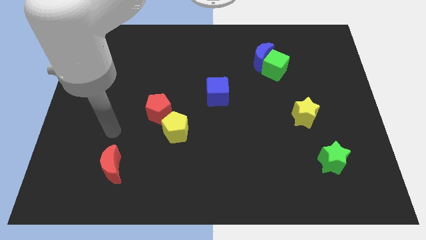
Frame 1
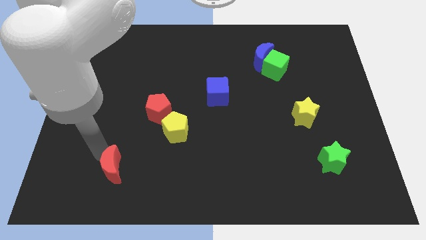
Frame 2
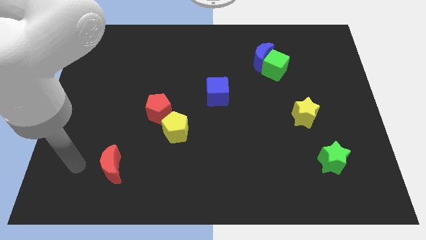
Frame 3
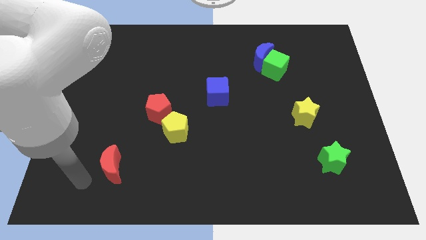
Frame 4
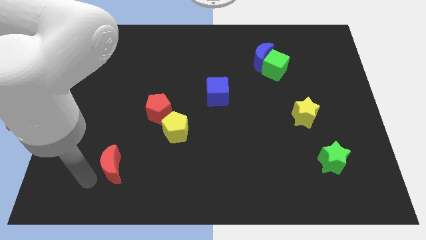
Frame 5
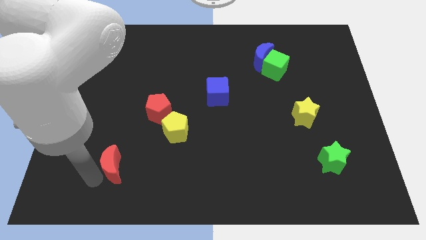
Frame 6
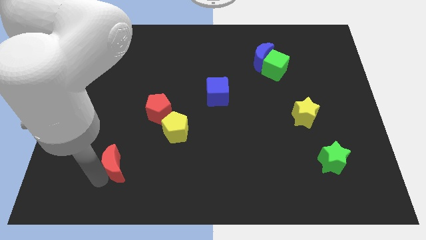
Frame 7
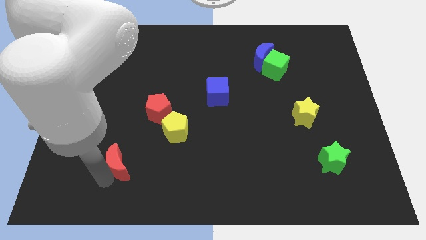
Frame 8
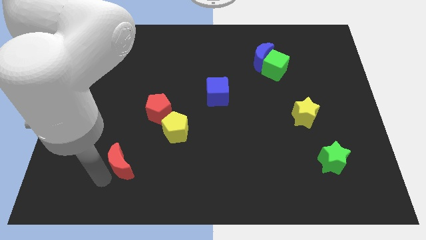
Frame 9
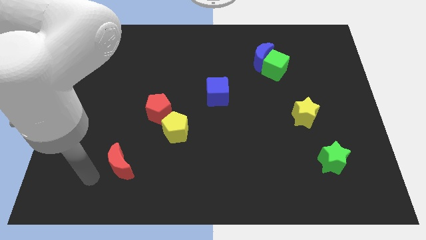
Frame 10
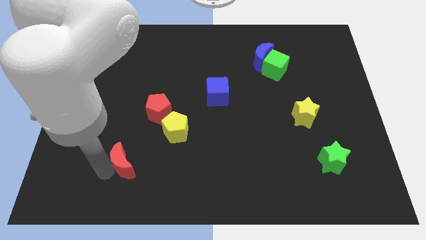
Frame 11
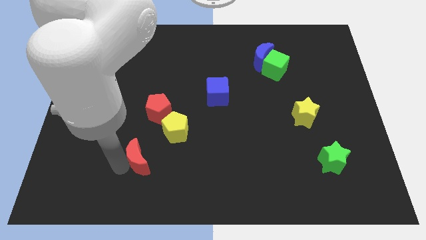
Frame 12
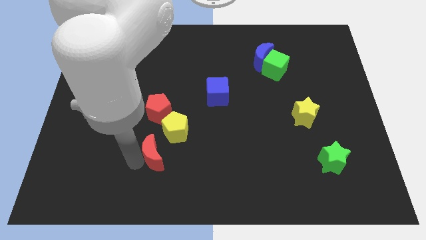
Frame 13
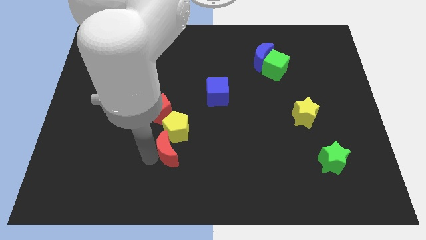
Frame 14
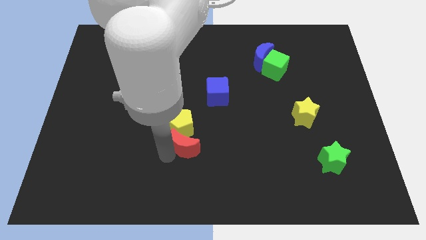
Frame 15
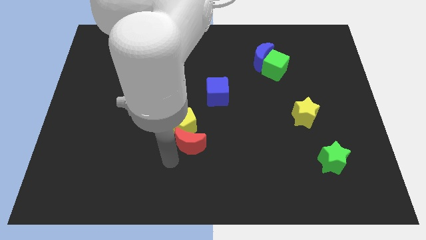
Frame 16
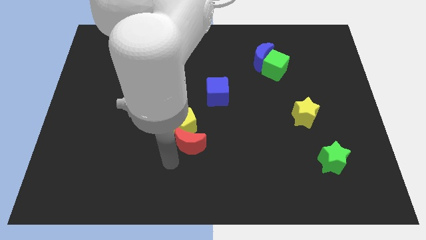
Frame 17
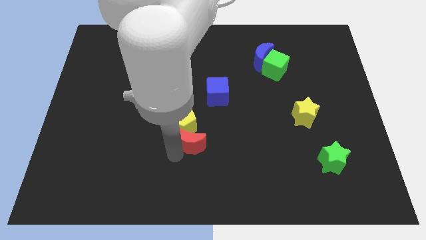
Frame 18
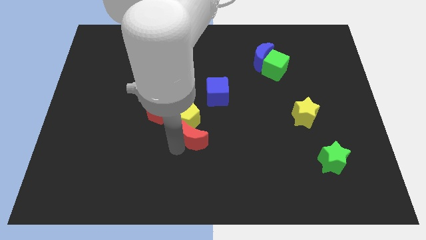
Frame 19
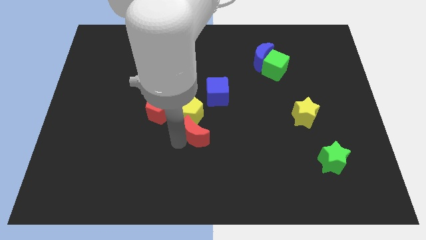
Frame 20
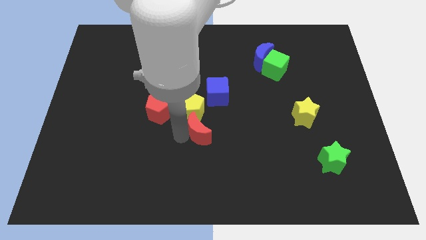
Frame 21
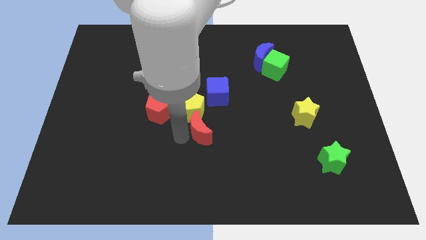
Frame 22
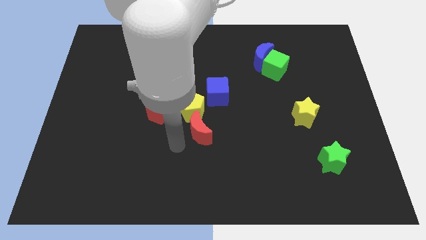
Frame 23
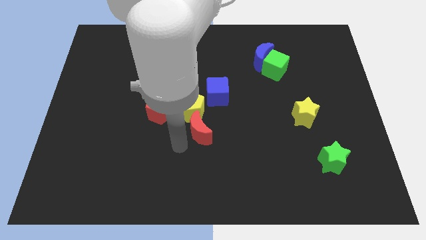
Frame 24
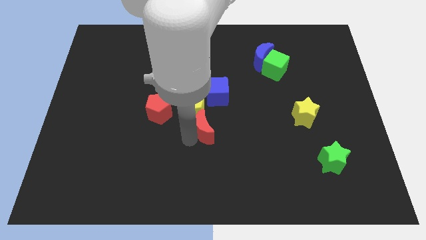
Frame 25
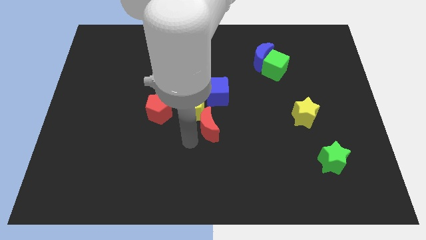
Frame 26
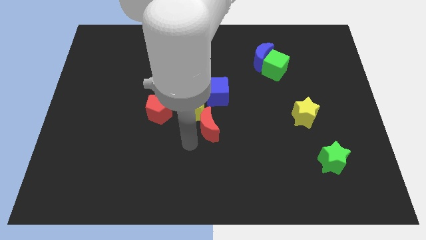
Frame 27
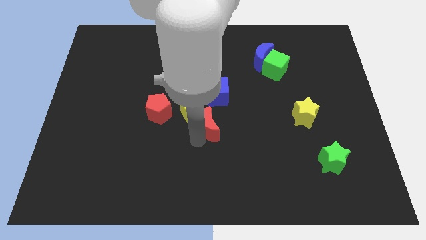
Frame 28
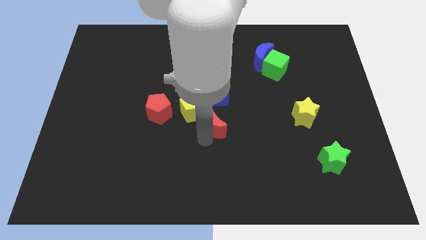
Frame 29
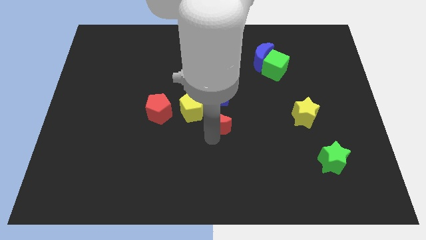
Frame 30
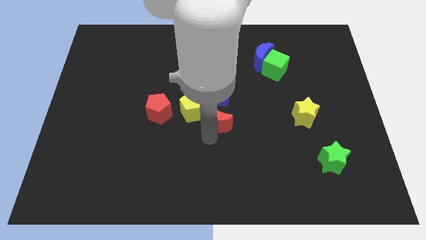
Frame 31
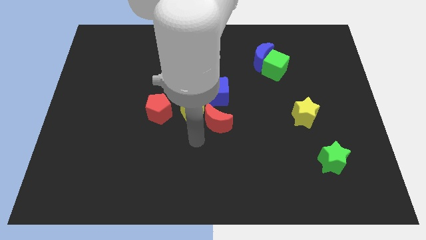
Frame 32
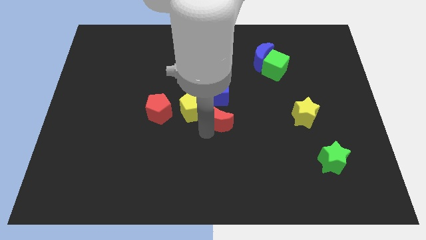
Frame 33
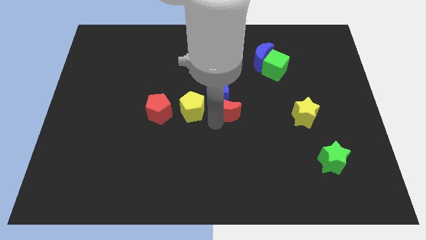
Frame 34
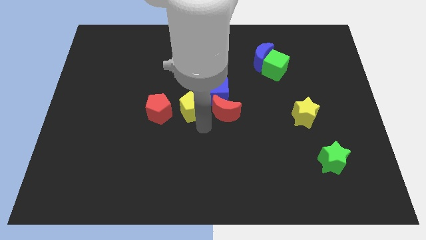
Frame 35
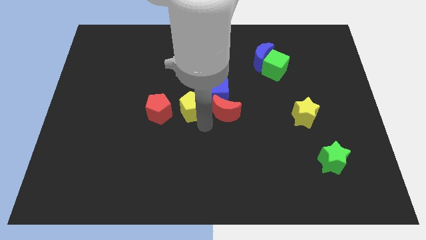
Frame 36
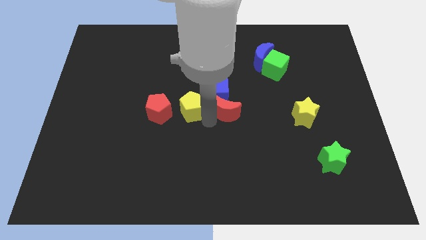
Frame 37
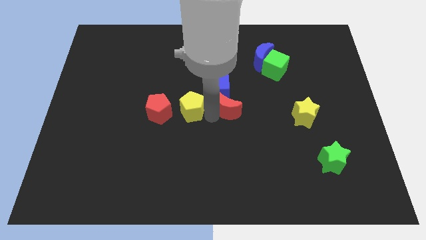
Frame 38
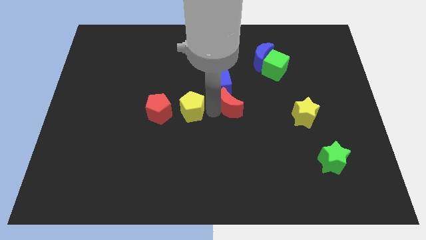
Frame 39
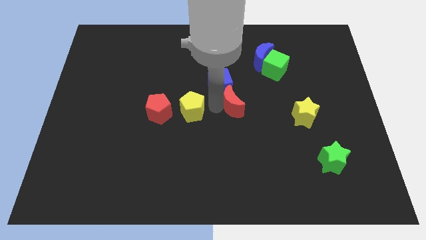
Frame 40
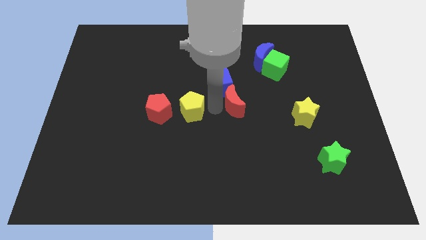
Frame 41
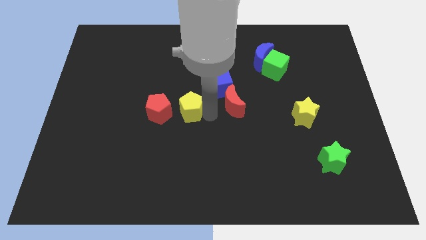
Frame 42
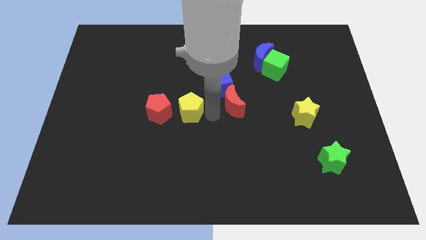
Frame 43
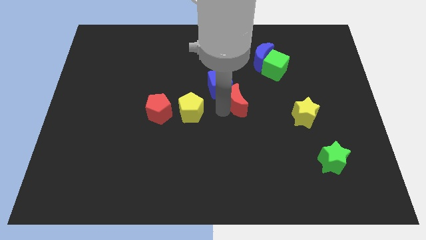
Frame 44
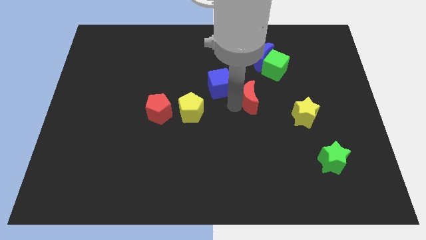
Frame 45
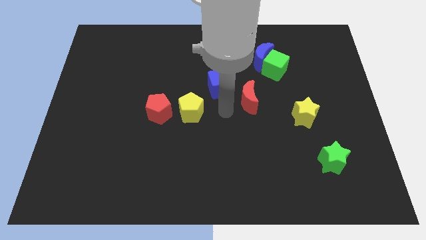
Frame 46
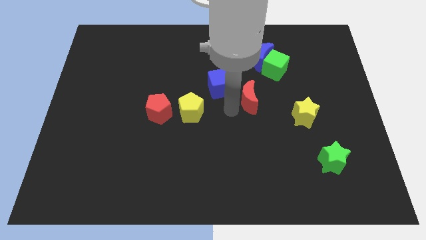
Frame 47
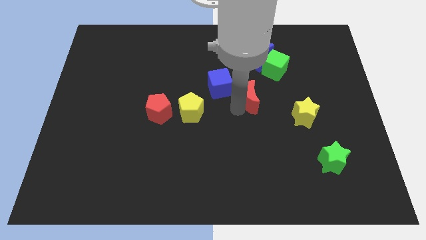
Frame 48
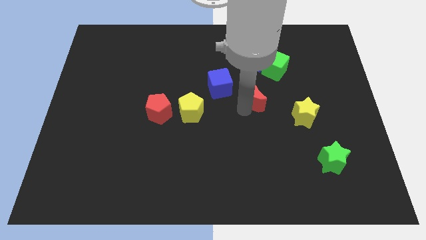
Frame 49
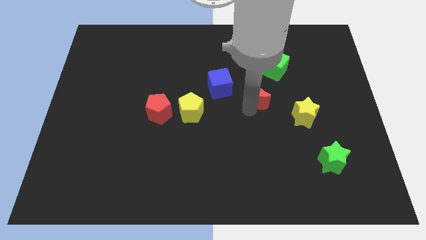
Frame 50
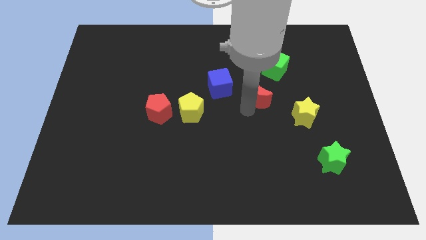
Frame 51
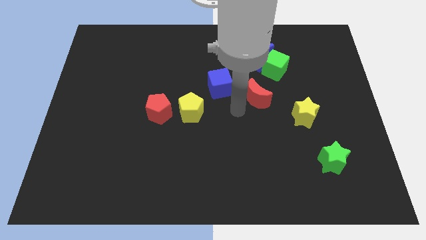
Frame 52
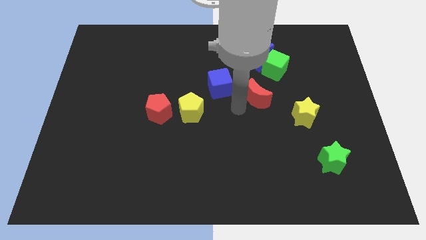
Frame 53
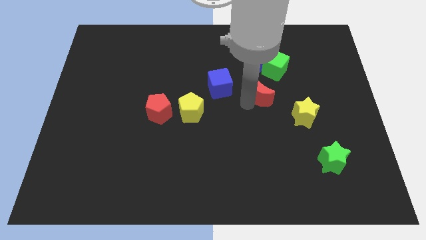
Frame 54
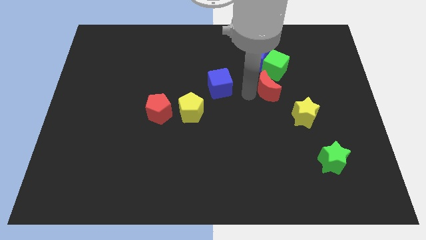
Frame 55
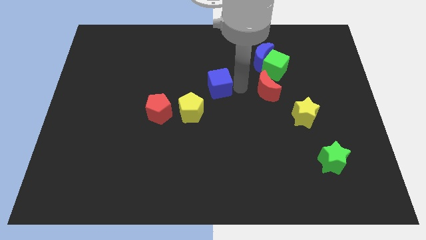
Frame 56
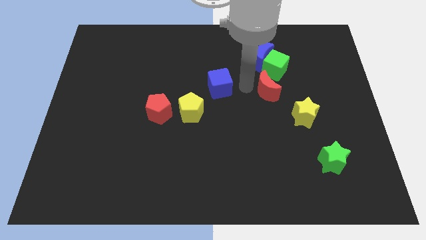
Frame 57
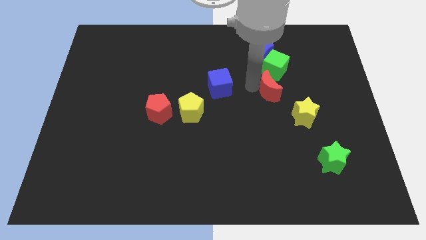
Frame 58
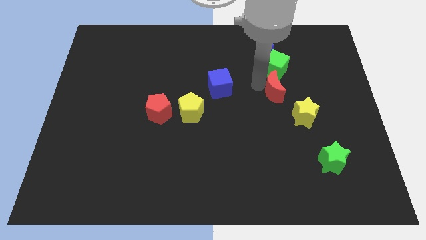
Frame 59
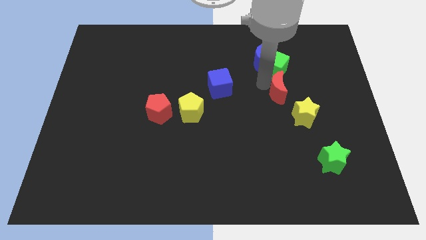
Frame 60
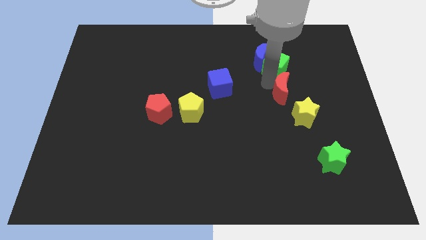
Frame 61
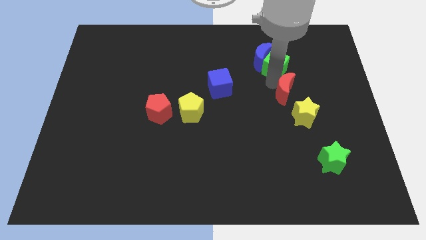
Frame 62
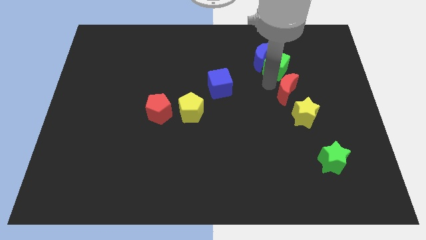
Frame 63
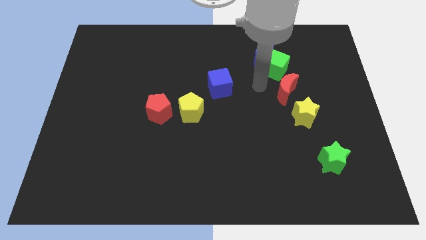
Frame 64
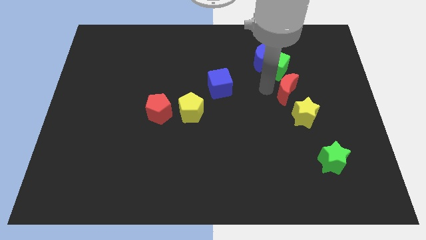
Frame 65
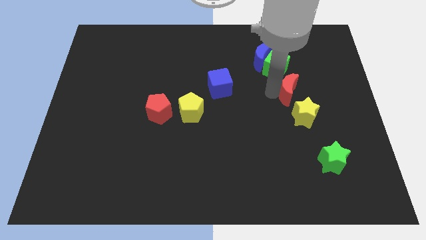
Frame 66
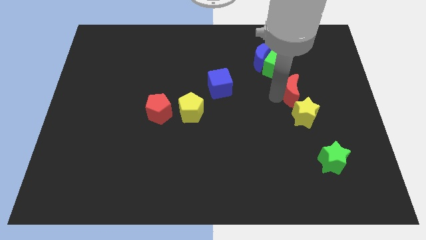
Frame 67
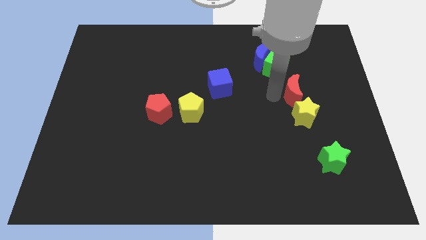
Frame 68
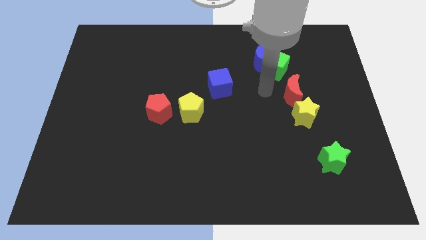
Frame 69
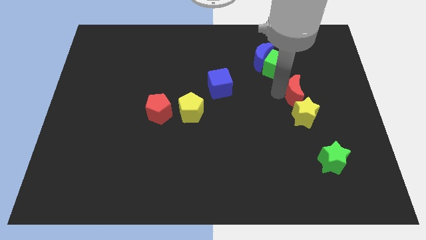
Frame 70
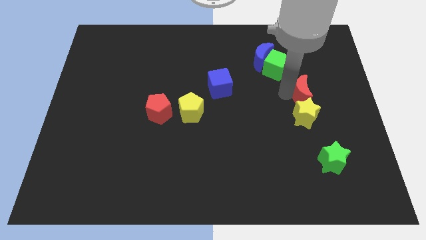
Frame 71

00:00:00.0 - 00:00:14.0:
slide the red moon diagonally up and to the right of the yellow star

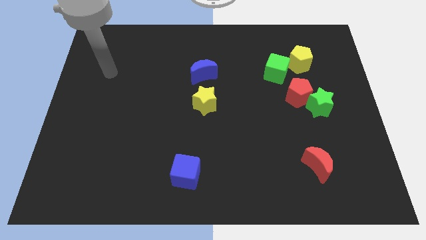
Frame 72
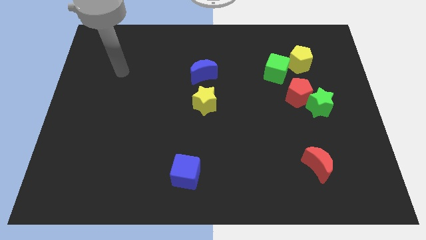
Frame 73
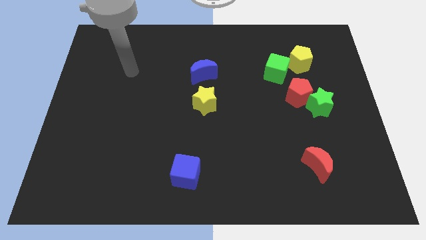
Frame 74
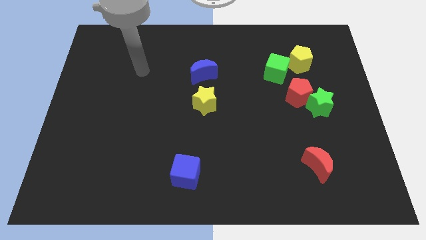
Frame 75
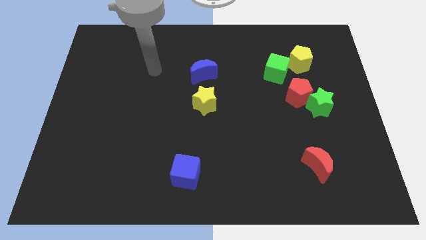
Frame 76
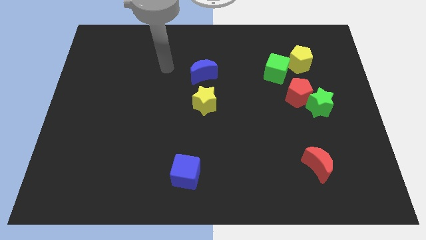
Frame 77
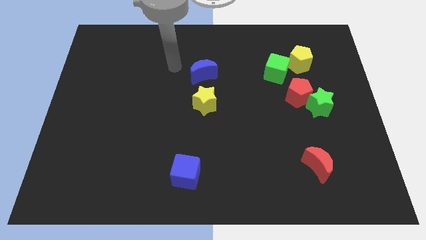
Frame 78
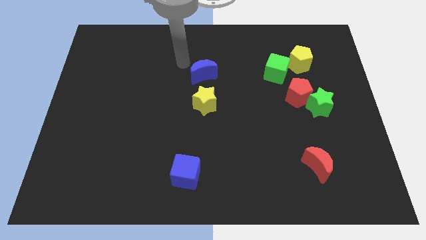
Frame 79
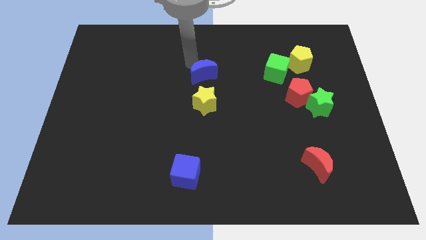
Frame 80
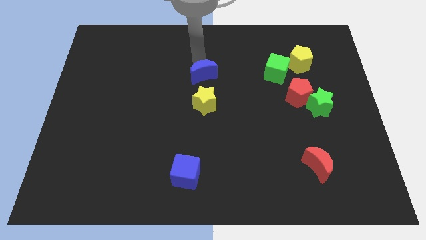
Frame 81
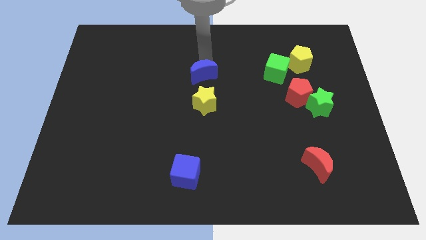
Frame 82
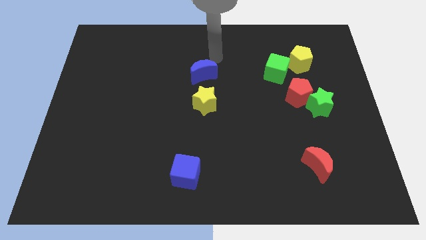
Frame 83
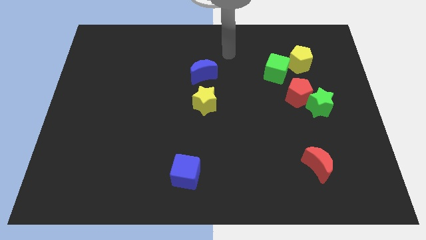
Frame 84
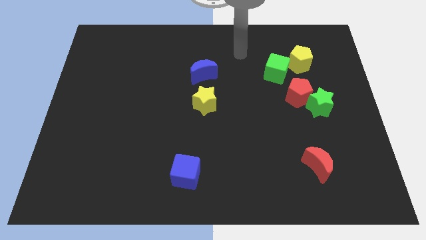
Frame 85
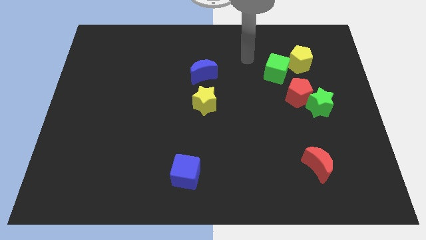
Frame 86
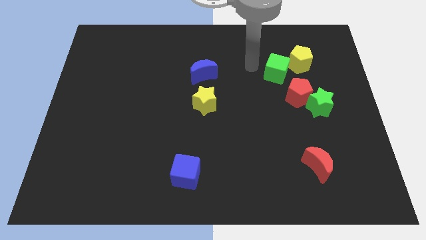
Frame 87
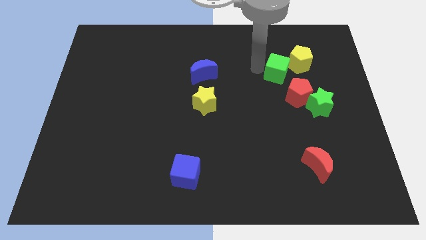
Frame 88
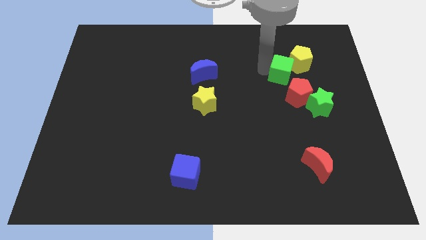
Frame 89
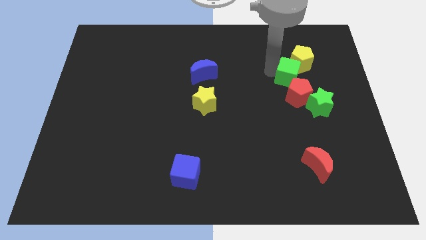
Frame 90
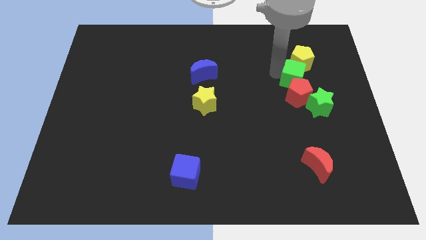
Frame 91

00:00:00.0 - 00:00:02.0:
push the green cube to the top right side of the red pentagon
